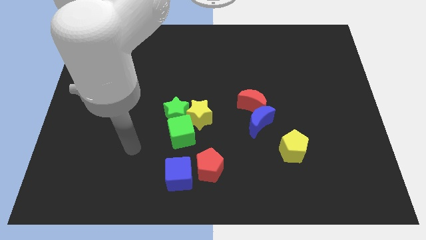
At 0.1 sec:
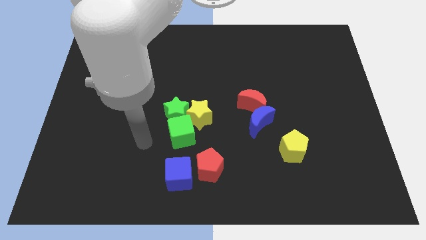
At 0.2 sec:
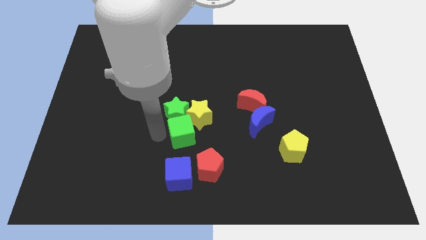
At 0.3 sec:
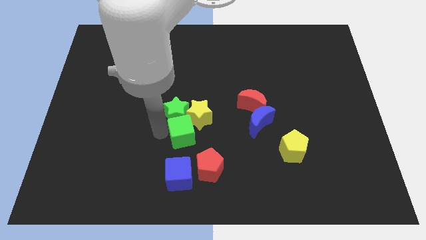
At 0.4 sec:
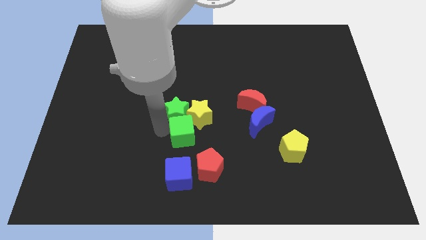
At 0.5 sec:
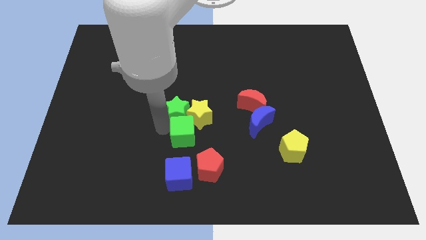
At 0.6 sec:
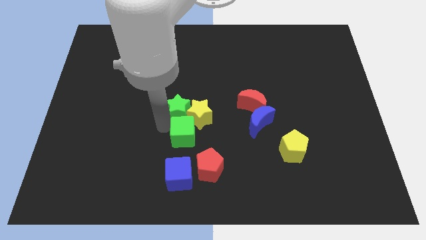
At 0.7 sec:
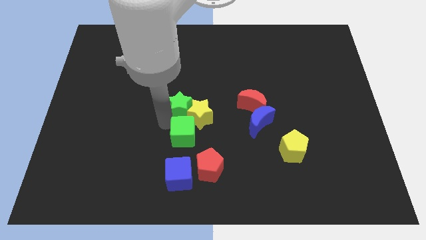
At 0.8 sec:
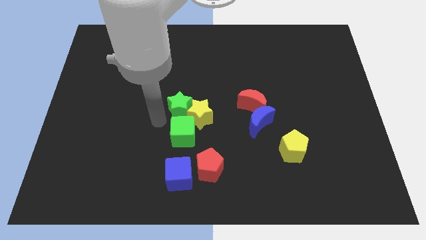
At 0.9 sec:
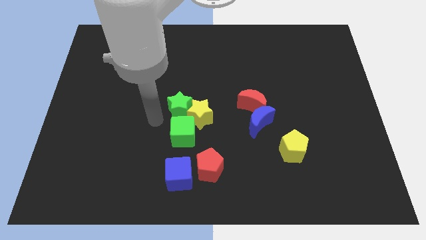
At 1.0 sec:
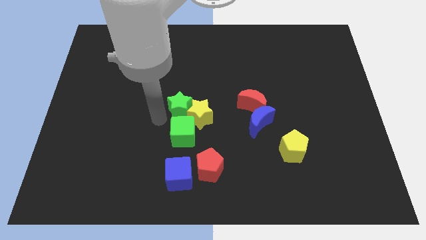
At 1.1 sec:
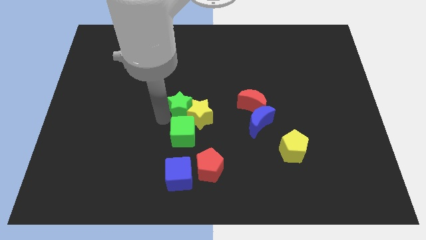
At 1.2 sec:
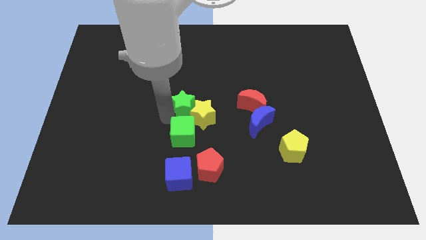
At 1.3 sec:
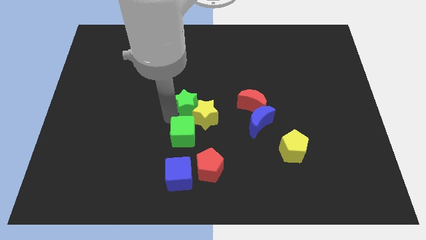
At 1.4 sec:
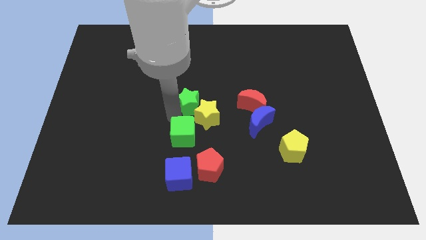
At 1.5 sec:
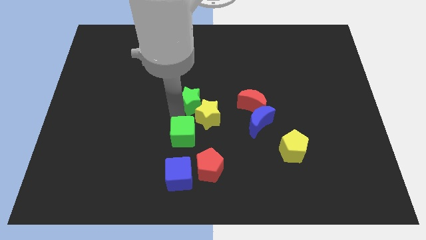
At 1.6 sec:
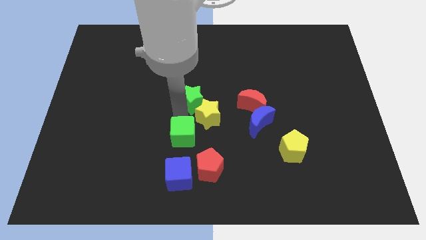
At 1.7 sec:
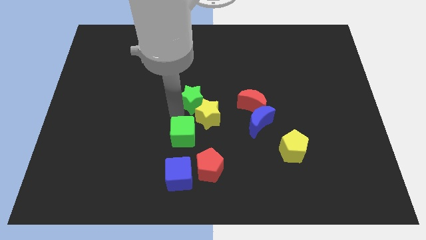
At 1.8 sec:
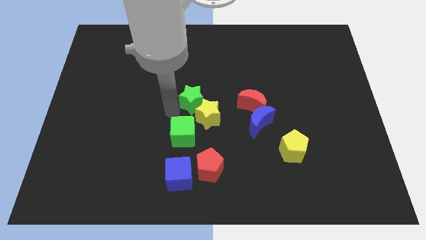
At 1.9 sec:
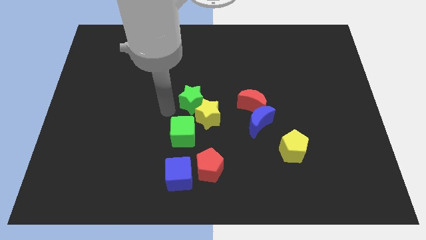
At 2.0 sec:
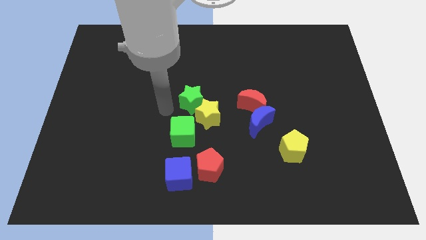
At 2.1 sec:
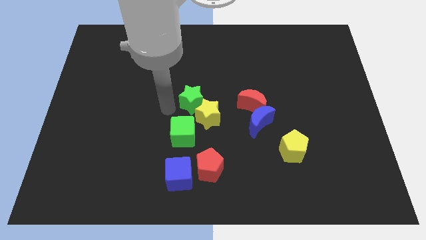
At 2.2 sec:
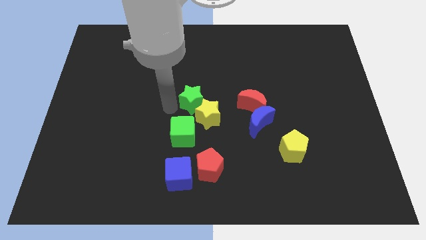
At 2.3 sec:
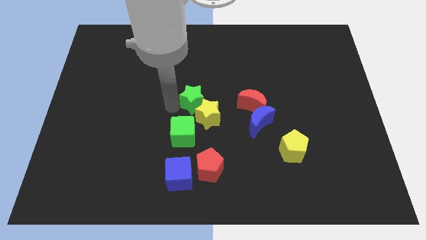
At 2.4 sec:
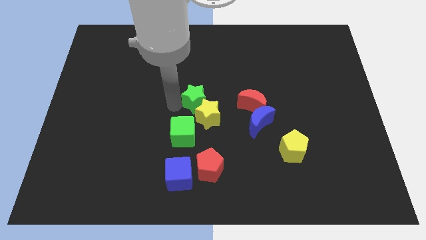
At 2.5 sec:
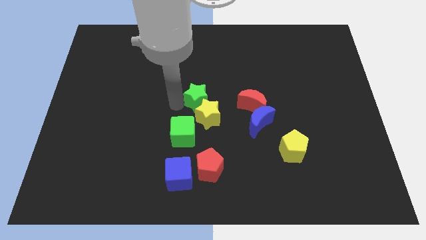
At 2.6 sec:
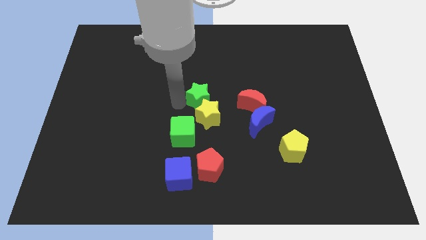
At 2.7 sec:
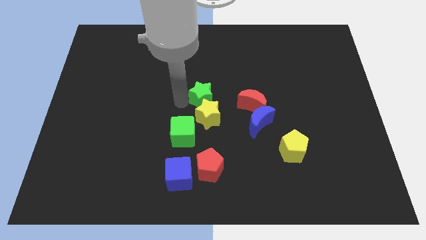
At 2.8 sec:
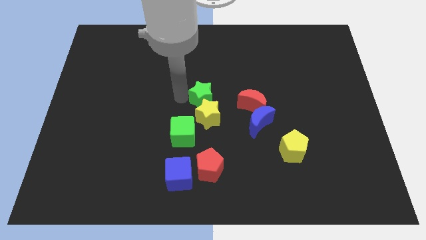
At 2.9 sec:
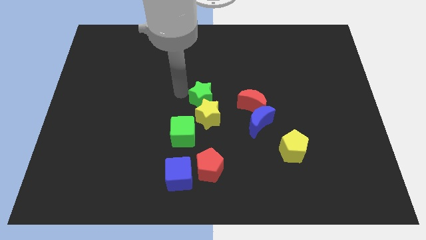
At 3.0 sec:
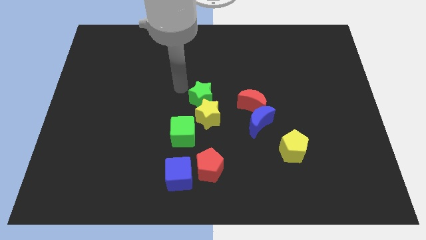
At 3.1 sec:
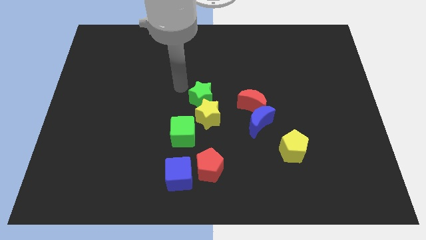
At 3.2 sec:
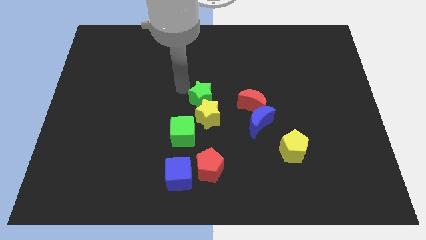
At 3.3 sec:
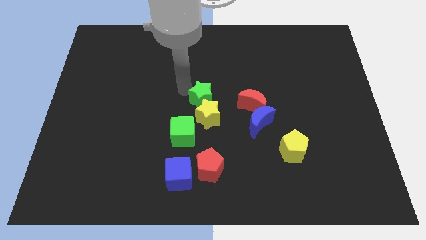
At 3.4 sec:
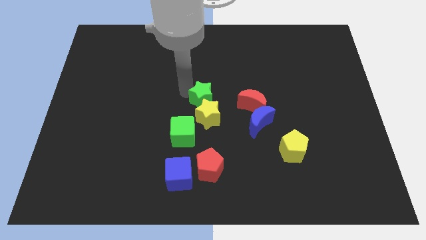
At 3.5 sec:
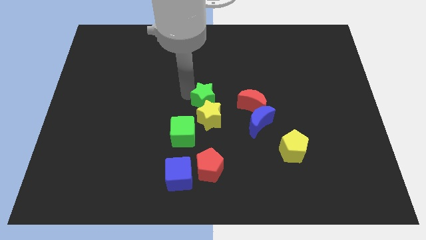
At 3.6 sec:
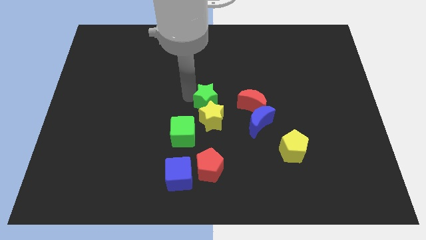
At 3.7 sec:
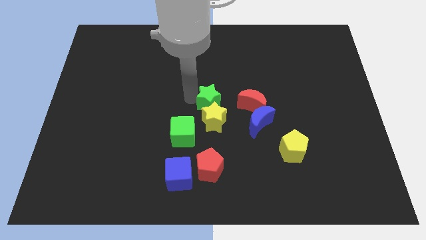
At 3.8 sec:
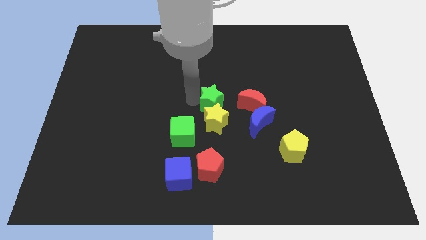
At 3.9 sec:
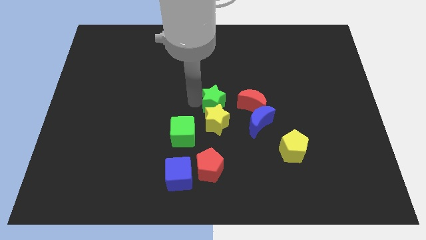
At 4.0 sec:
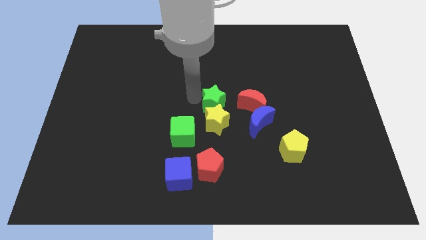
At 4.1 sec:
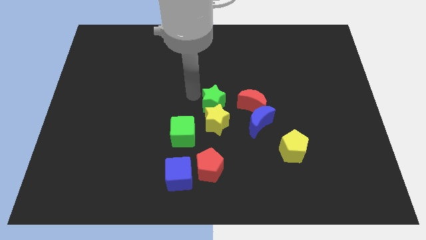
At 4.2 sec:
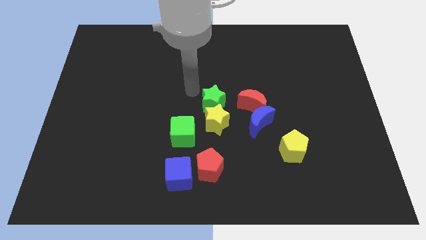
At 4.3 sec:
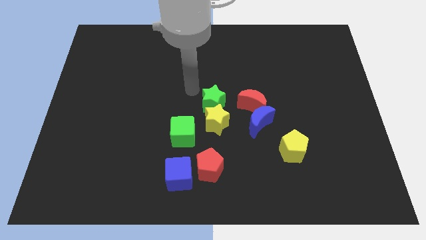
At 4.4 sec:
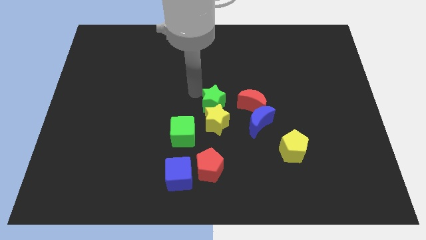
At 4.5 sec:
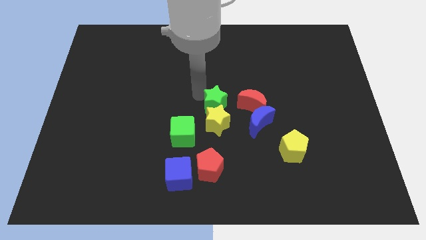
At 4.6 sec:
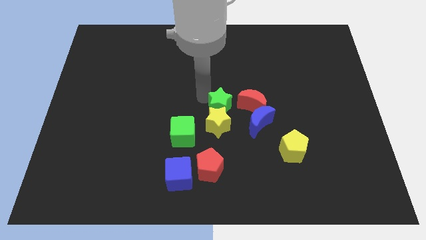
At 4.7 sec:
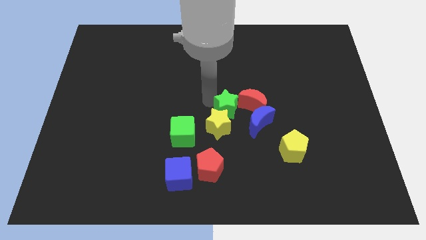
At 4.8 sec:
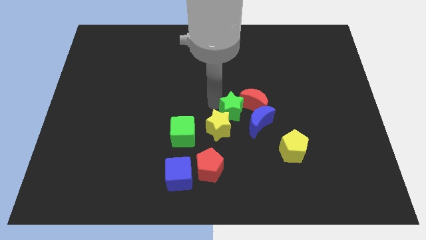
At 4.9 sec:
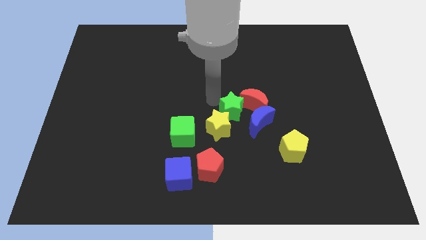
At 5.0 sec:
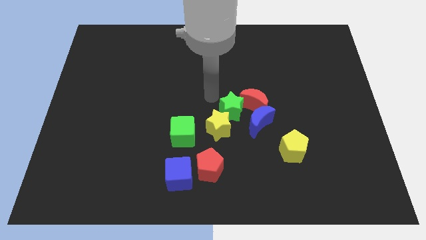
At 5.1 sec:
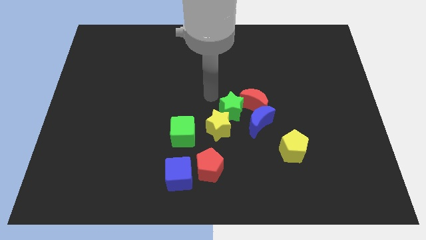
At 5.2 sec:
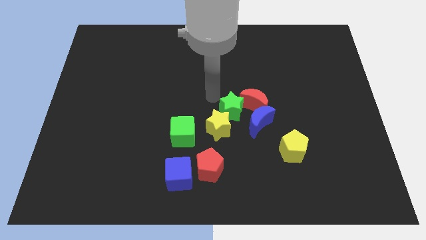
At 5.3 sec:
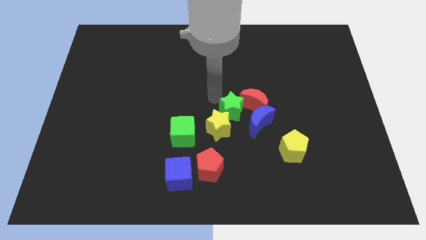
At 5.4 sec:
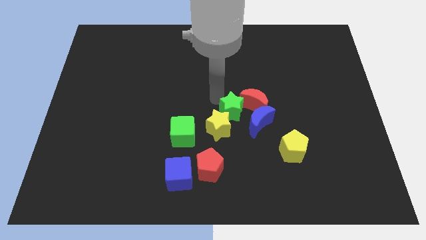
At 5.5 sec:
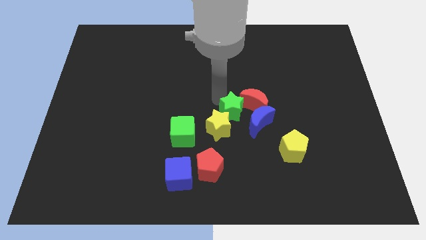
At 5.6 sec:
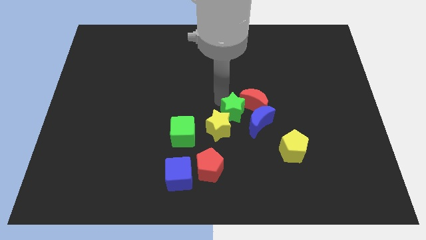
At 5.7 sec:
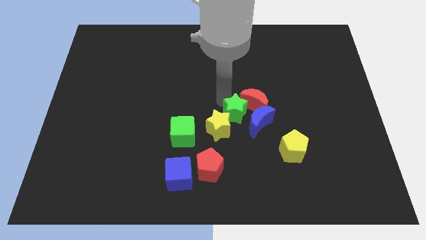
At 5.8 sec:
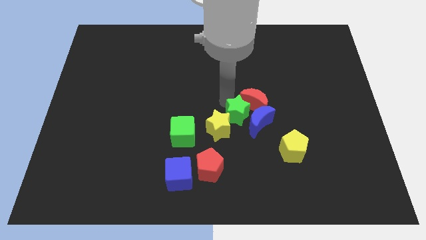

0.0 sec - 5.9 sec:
slide the green star towards the blue moon

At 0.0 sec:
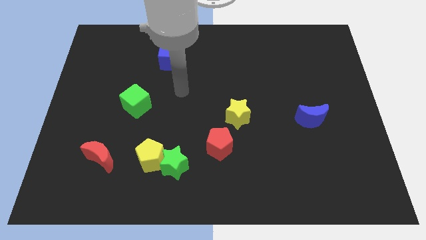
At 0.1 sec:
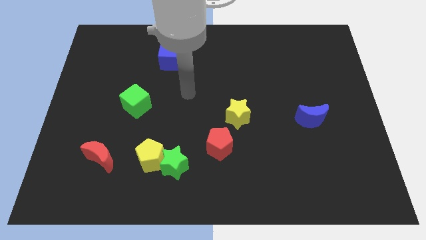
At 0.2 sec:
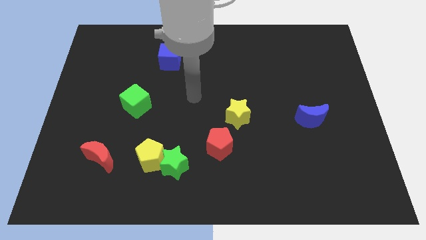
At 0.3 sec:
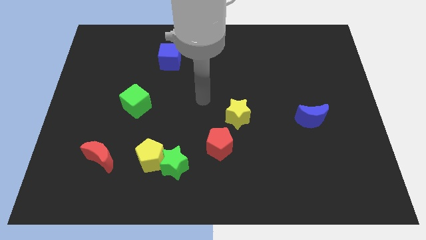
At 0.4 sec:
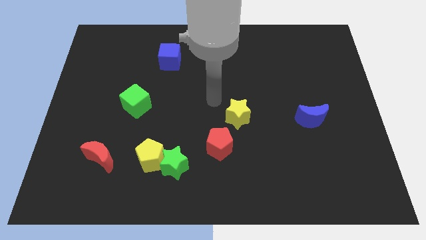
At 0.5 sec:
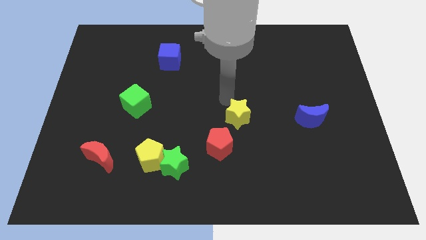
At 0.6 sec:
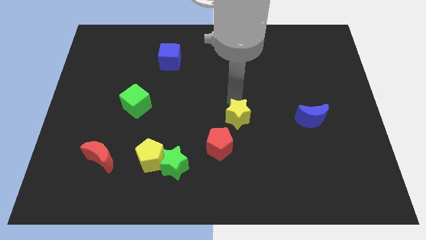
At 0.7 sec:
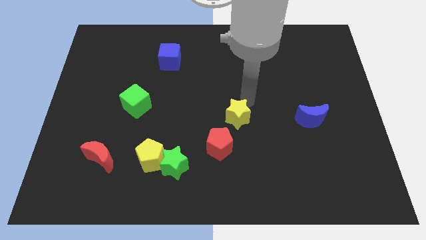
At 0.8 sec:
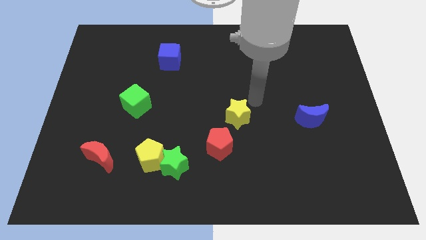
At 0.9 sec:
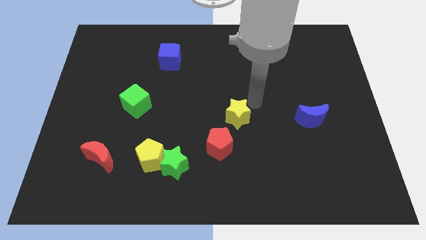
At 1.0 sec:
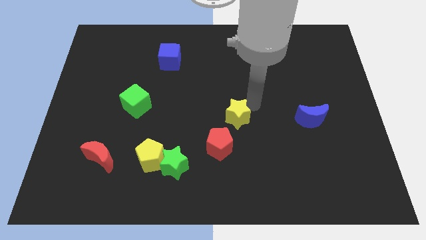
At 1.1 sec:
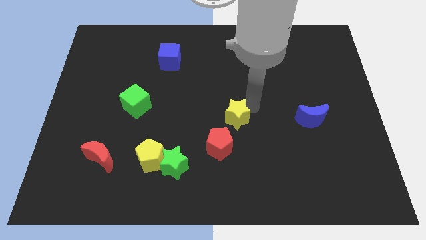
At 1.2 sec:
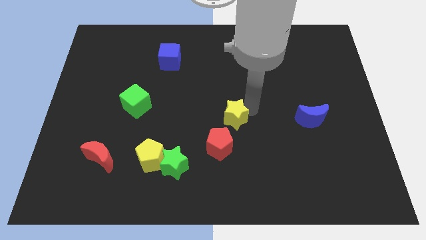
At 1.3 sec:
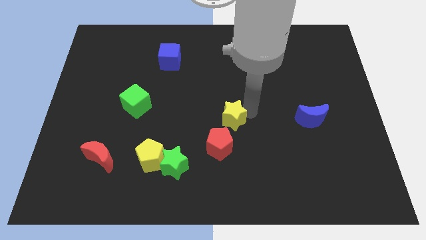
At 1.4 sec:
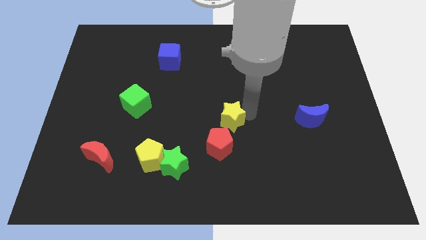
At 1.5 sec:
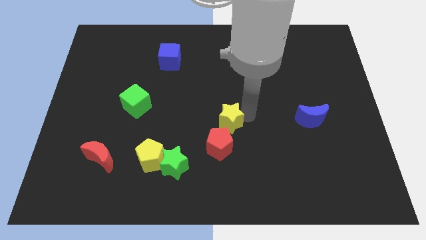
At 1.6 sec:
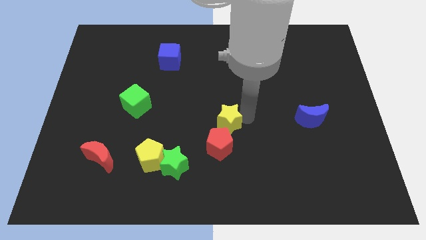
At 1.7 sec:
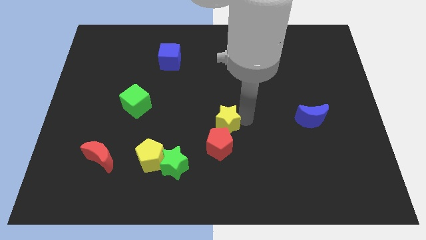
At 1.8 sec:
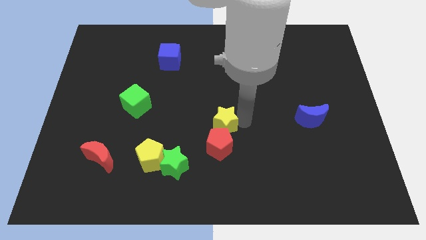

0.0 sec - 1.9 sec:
push the yellow star next to the red pentagon

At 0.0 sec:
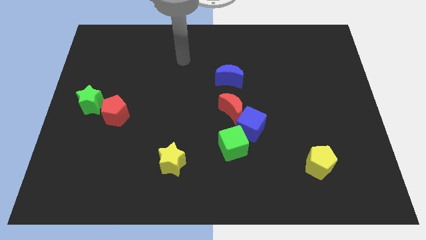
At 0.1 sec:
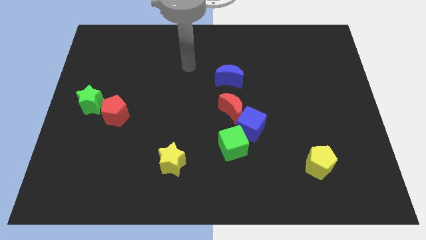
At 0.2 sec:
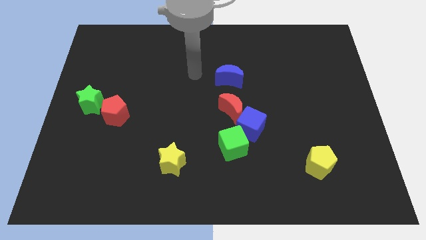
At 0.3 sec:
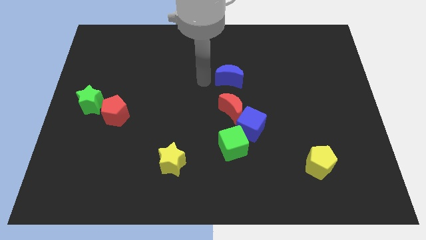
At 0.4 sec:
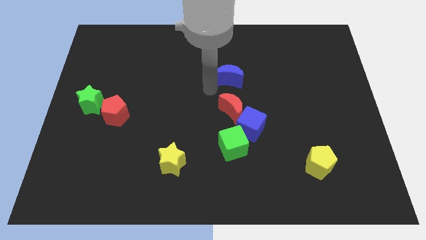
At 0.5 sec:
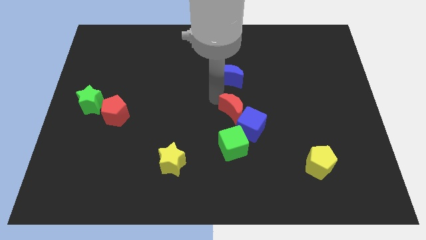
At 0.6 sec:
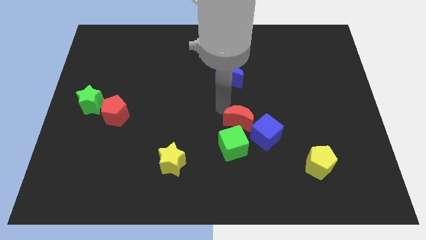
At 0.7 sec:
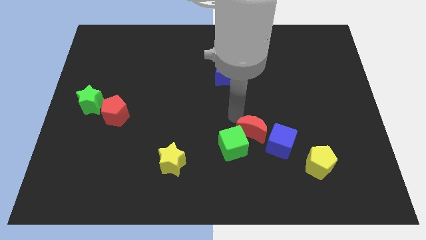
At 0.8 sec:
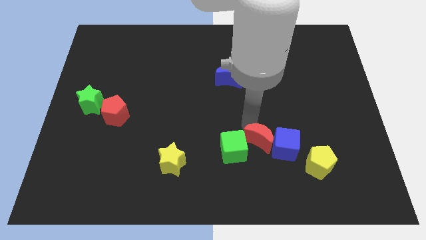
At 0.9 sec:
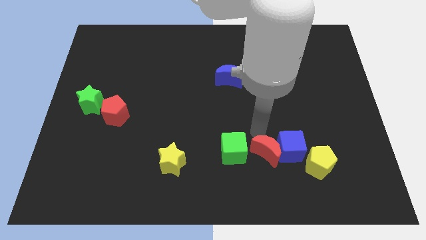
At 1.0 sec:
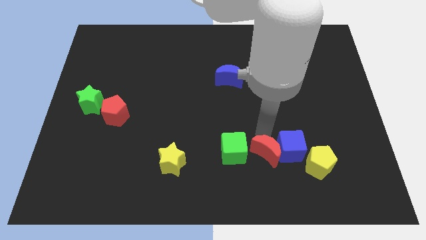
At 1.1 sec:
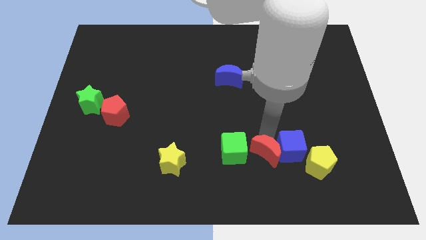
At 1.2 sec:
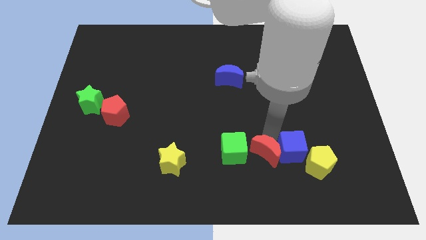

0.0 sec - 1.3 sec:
slide the blue cube close to the yellow pentagon
